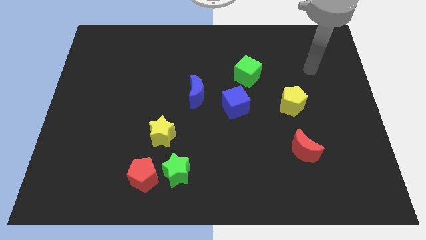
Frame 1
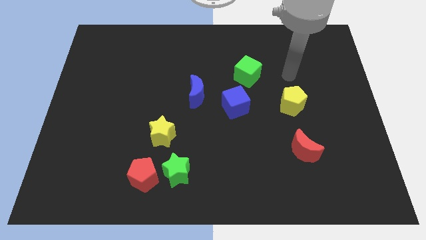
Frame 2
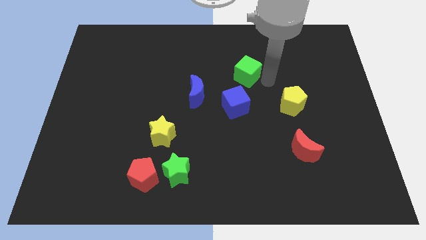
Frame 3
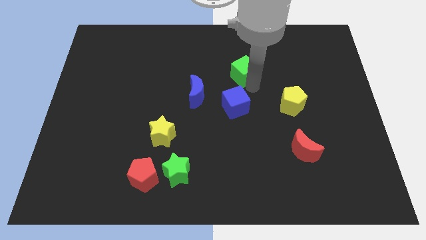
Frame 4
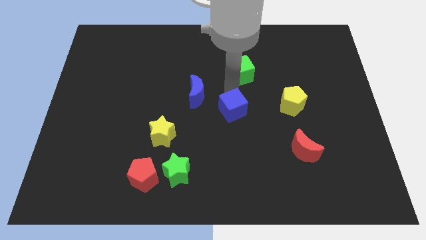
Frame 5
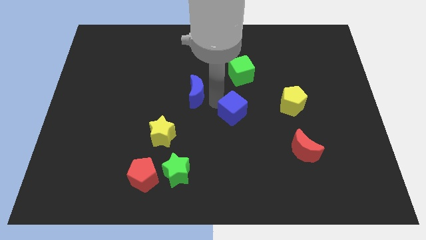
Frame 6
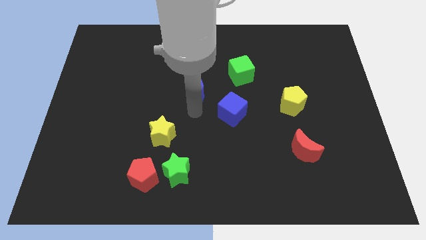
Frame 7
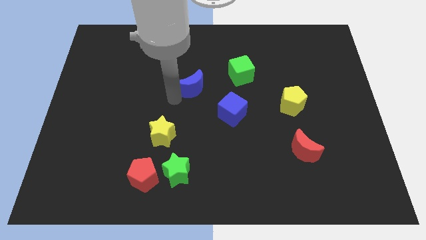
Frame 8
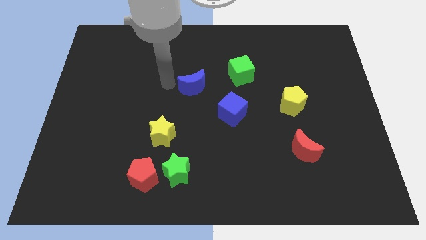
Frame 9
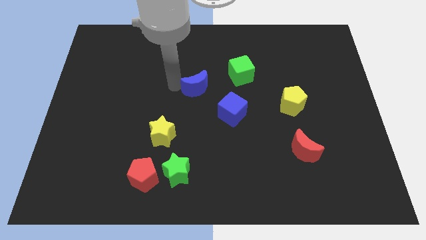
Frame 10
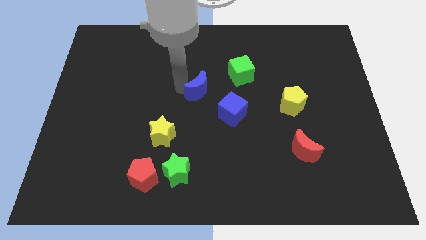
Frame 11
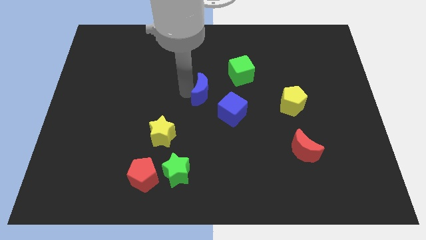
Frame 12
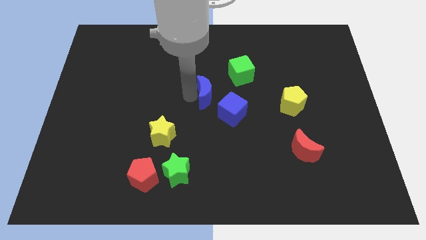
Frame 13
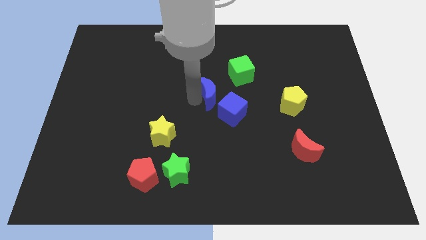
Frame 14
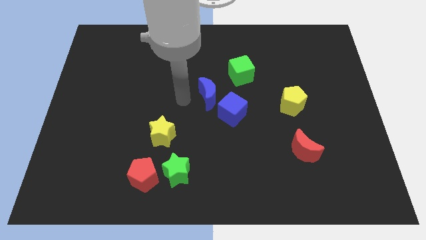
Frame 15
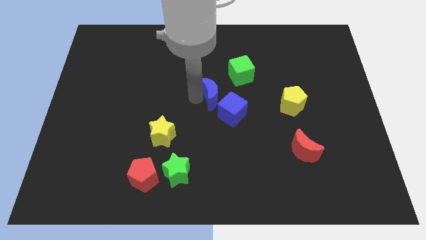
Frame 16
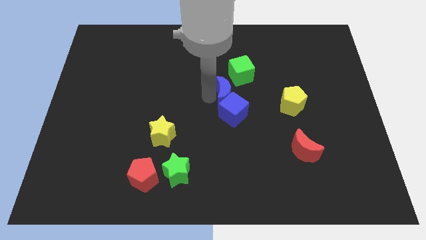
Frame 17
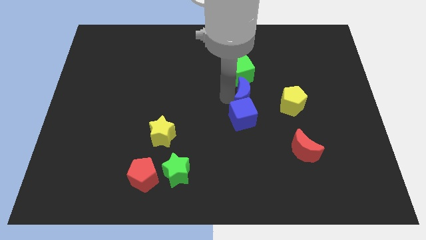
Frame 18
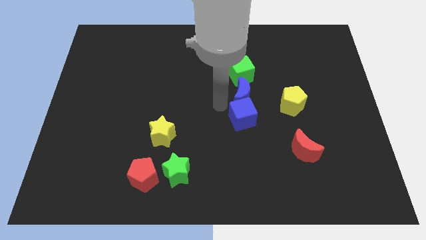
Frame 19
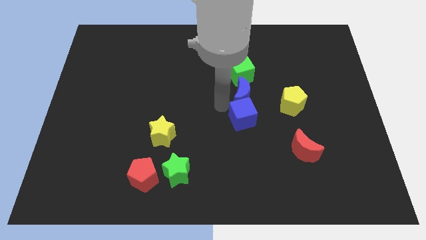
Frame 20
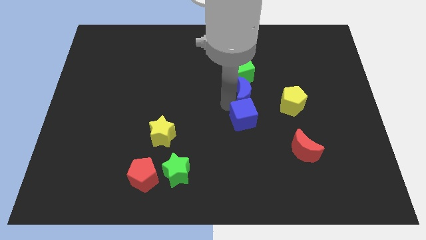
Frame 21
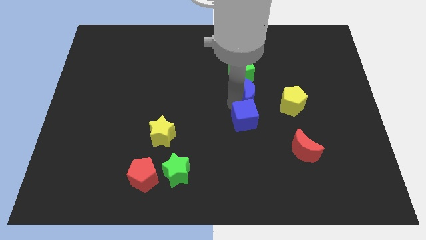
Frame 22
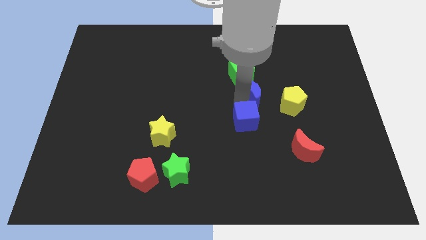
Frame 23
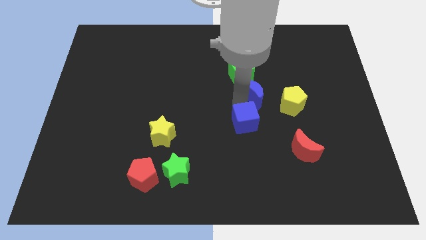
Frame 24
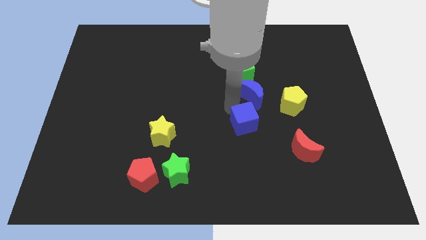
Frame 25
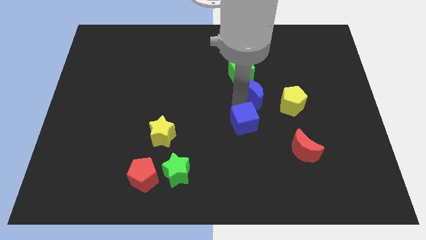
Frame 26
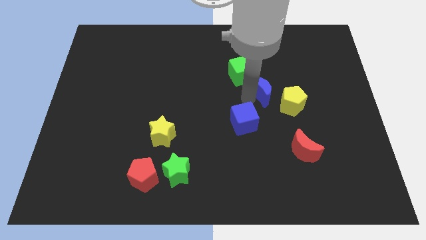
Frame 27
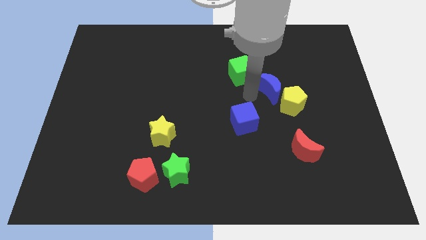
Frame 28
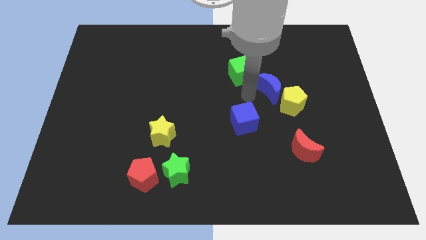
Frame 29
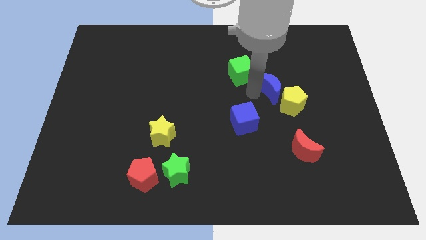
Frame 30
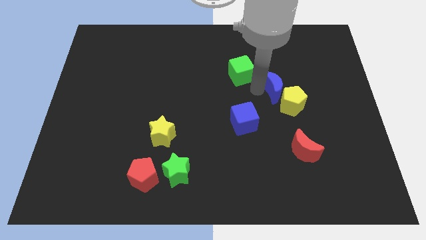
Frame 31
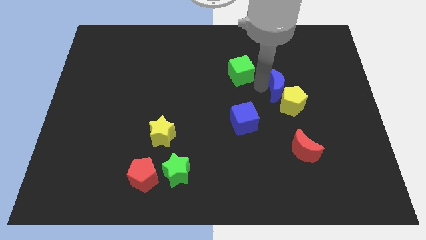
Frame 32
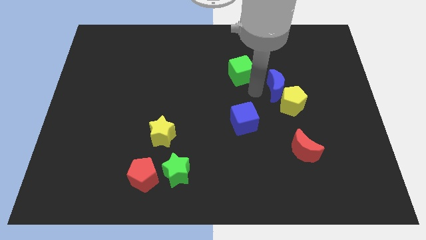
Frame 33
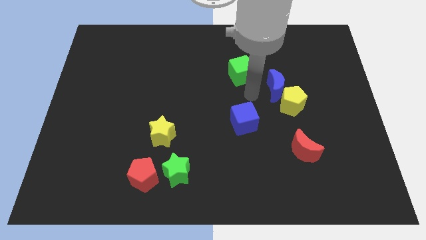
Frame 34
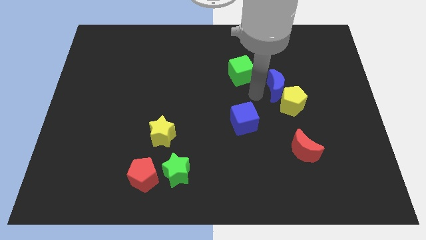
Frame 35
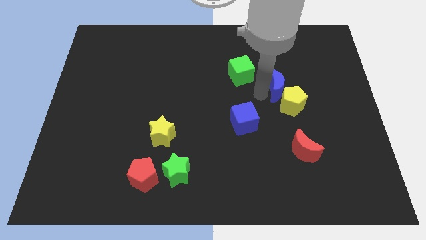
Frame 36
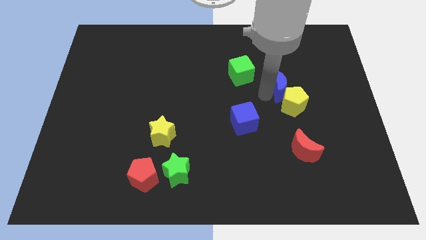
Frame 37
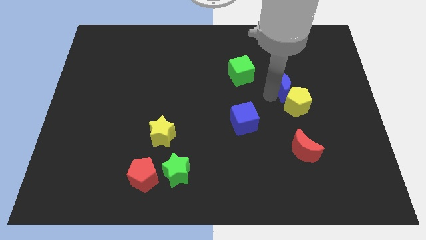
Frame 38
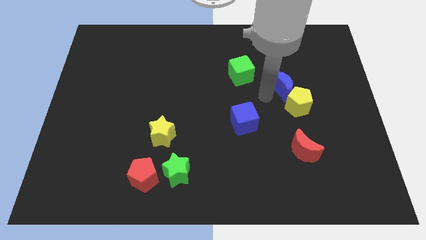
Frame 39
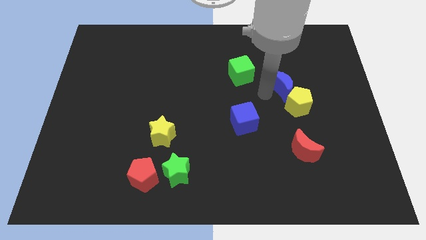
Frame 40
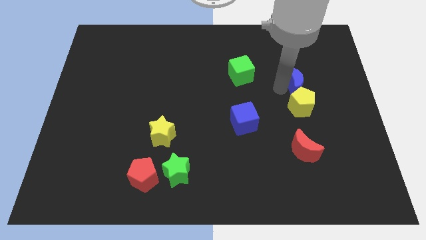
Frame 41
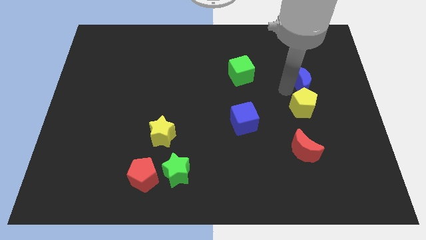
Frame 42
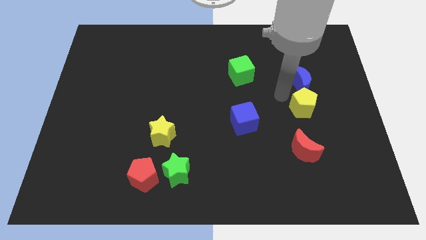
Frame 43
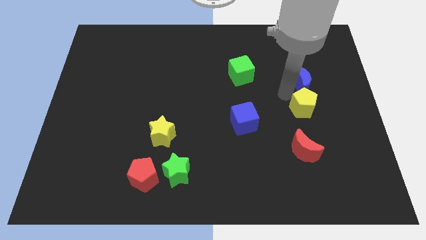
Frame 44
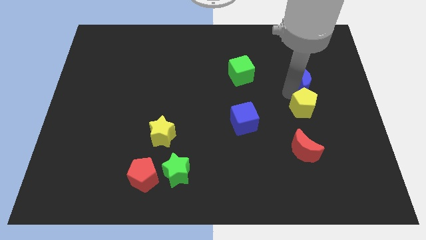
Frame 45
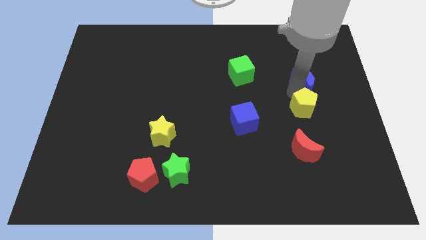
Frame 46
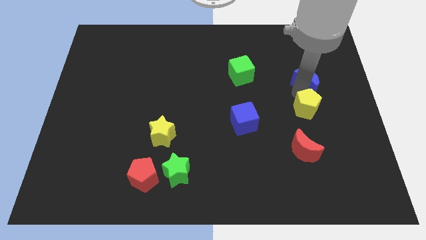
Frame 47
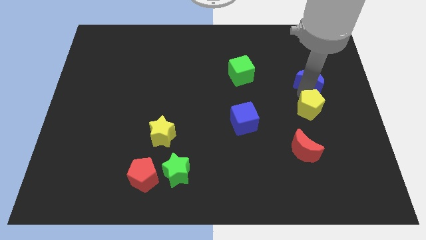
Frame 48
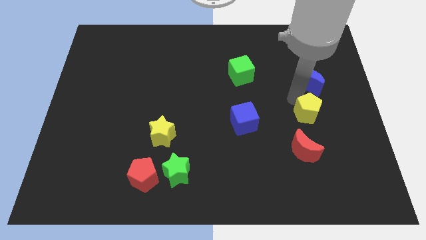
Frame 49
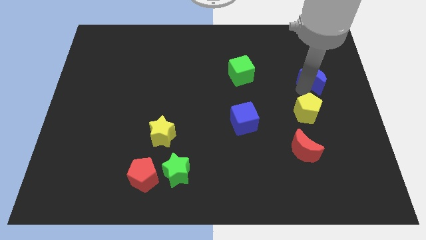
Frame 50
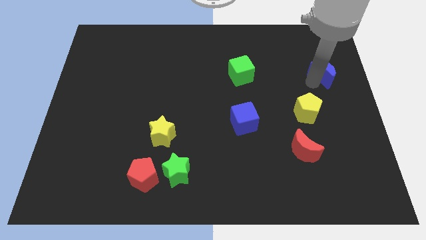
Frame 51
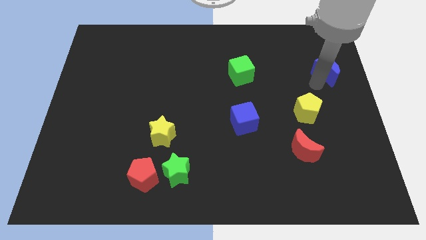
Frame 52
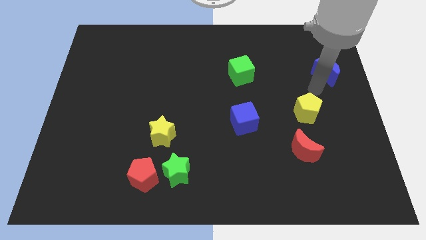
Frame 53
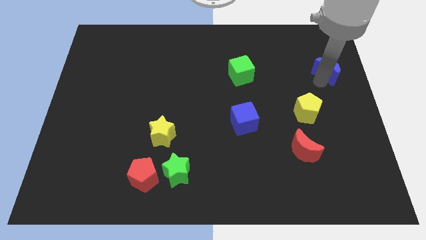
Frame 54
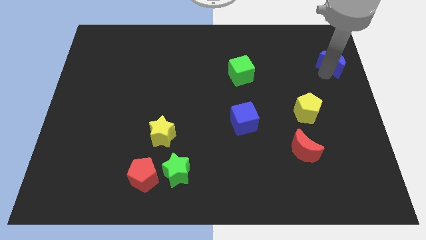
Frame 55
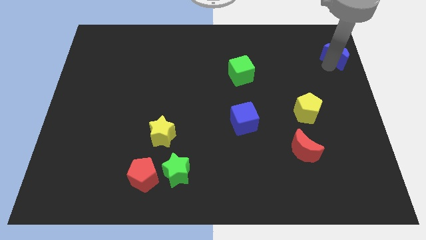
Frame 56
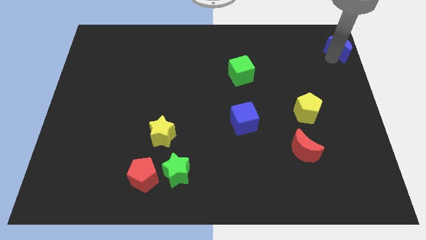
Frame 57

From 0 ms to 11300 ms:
move the blue moon to the top right
